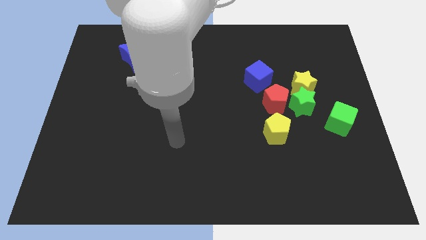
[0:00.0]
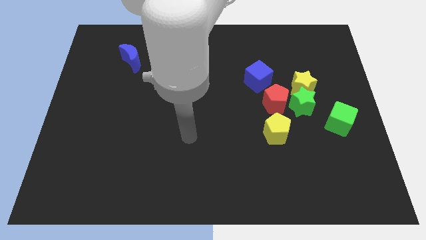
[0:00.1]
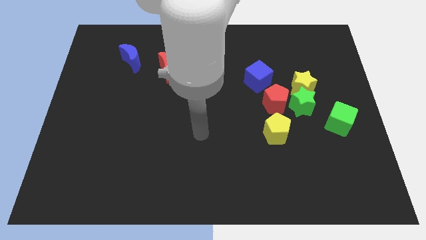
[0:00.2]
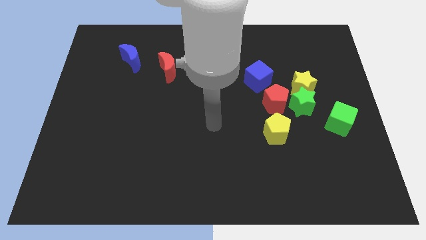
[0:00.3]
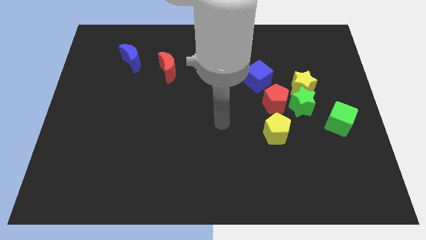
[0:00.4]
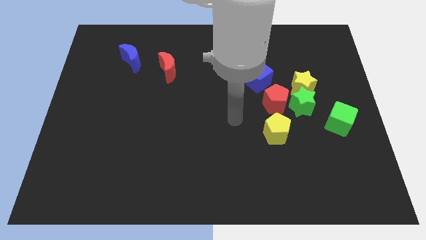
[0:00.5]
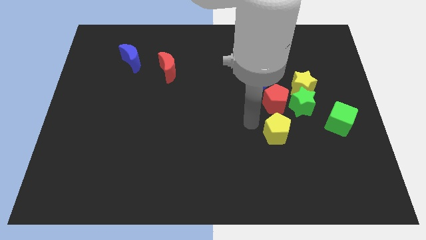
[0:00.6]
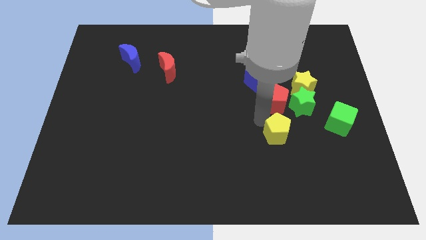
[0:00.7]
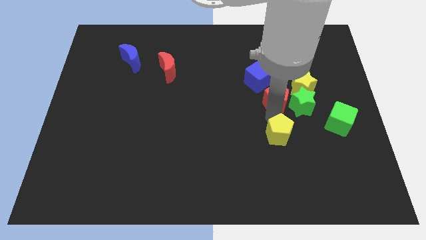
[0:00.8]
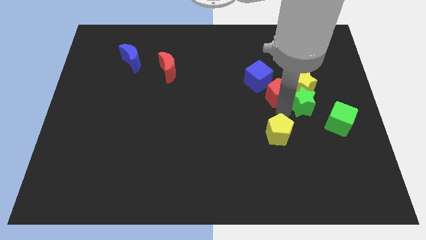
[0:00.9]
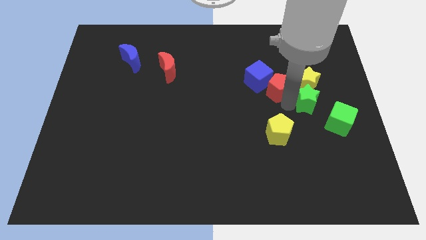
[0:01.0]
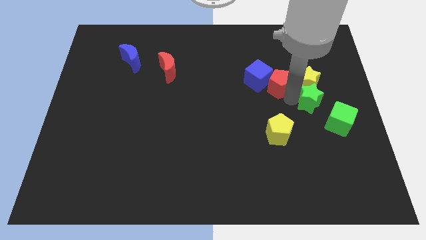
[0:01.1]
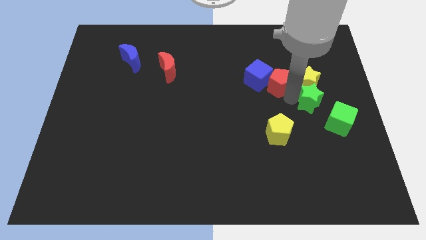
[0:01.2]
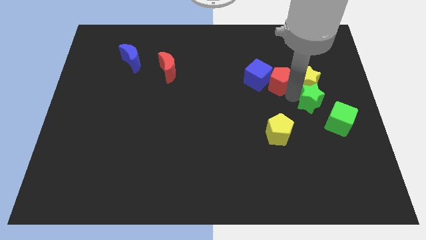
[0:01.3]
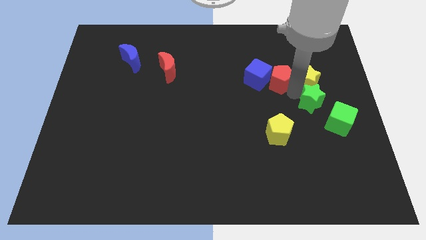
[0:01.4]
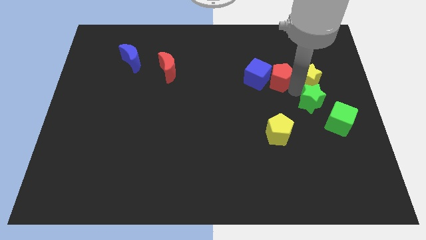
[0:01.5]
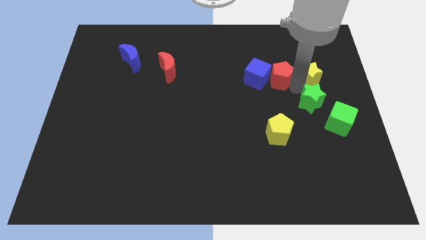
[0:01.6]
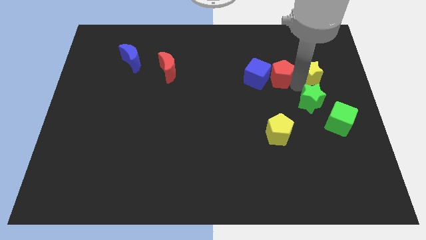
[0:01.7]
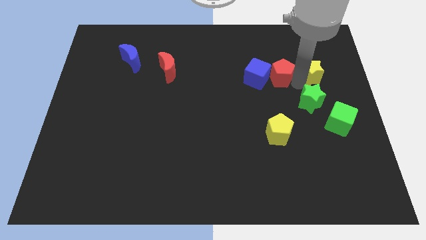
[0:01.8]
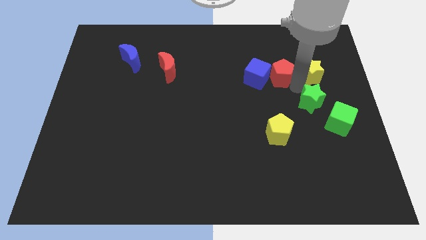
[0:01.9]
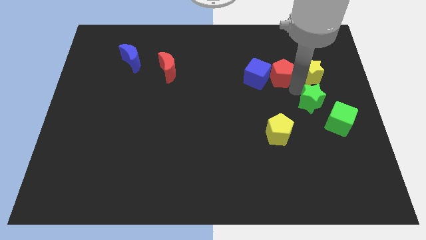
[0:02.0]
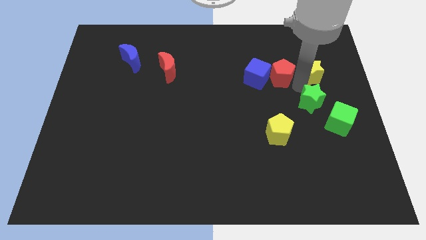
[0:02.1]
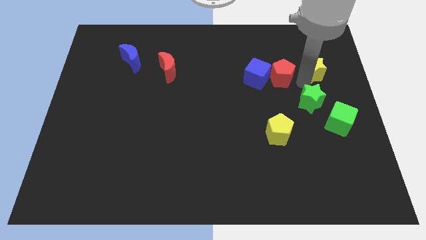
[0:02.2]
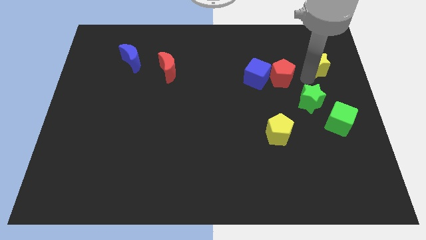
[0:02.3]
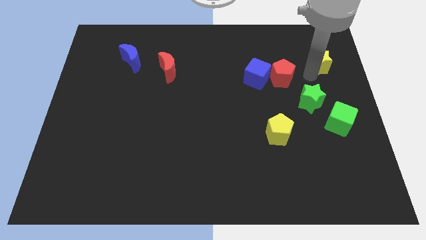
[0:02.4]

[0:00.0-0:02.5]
separate the yellow star from the green star and red pentagon

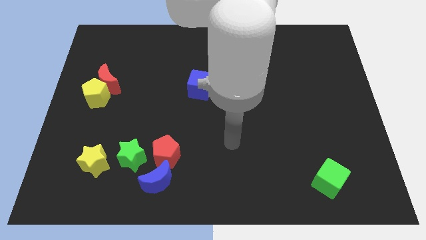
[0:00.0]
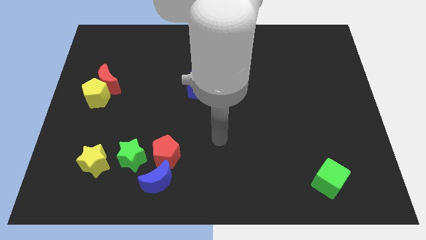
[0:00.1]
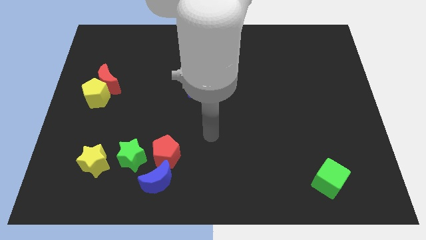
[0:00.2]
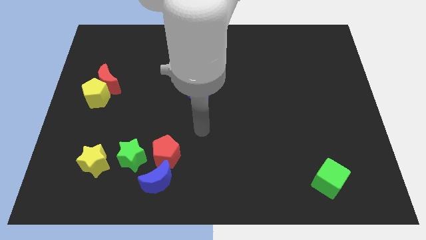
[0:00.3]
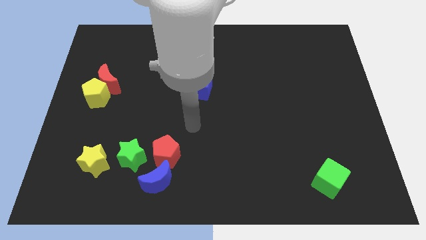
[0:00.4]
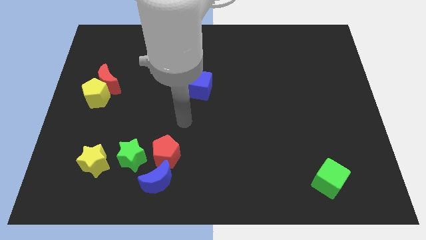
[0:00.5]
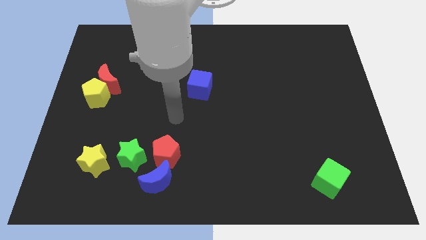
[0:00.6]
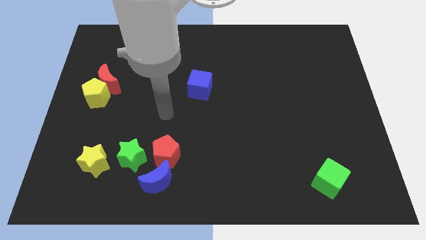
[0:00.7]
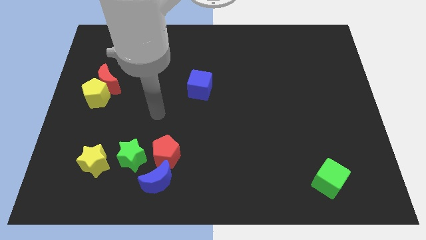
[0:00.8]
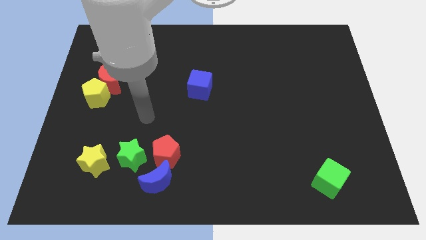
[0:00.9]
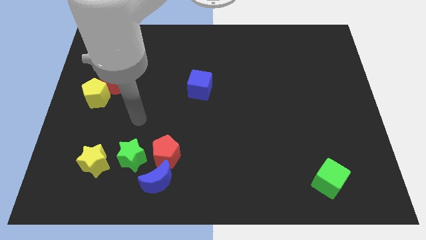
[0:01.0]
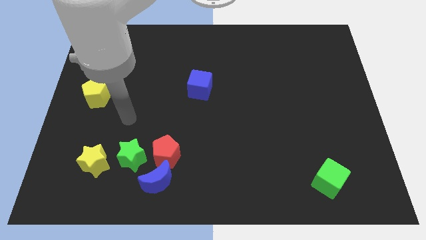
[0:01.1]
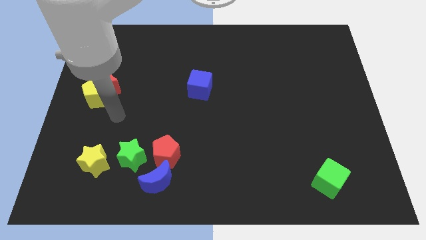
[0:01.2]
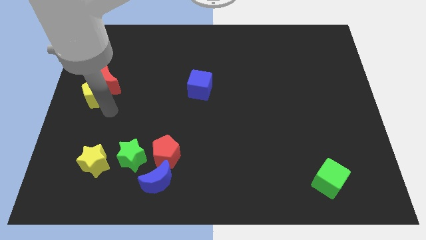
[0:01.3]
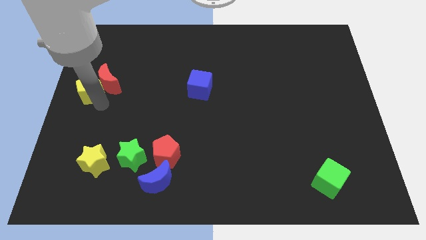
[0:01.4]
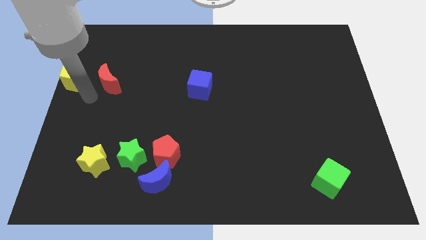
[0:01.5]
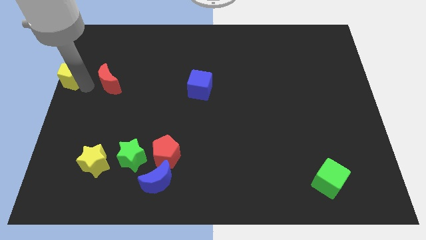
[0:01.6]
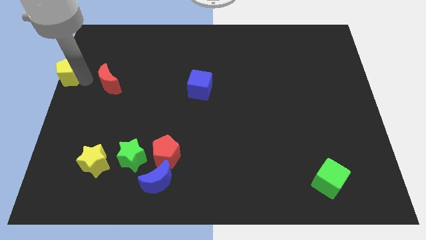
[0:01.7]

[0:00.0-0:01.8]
move the red moon away from the yellow pentagon

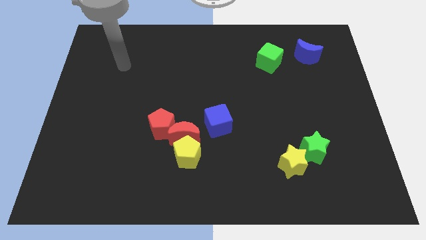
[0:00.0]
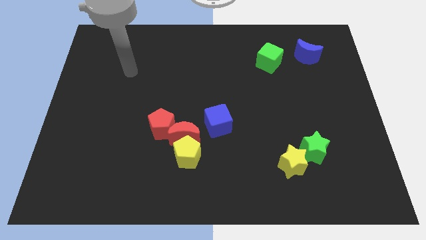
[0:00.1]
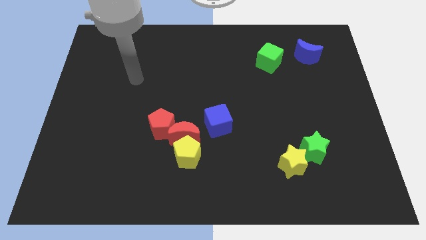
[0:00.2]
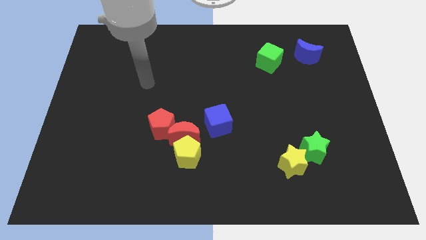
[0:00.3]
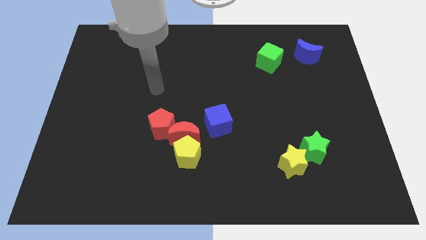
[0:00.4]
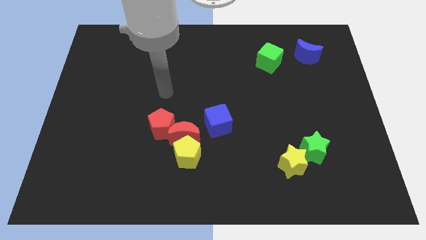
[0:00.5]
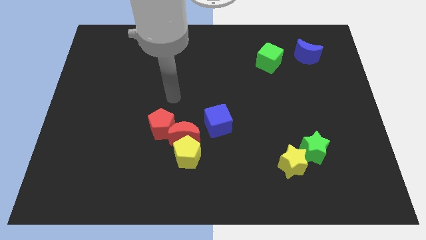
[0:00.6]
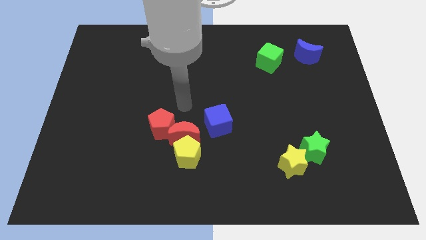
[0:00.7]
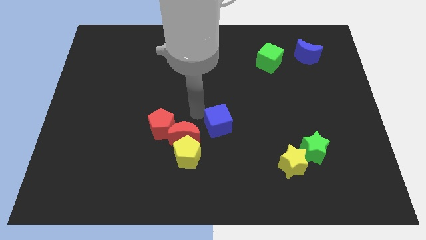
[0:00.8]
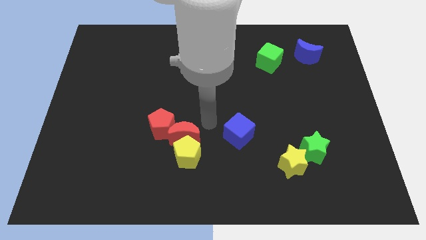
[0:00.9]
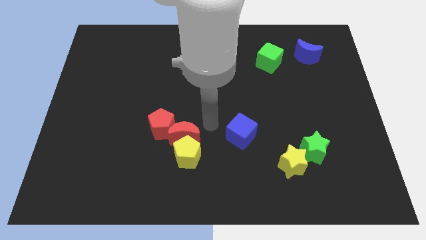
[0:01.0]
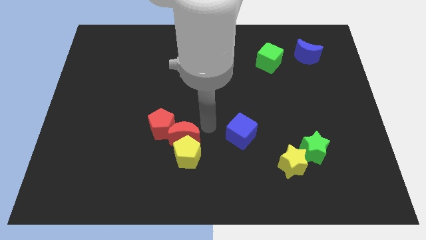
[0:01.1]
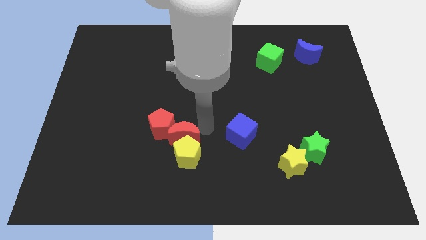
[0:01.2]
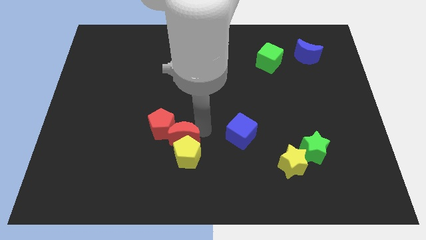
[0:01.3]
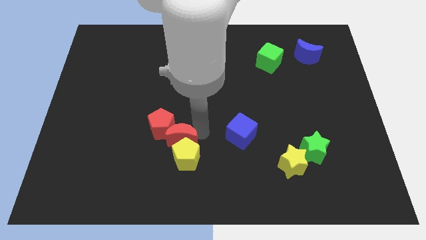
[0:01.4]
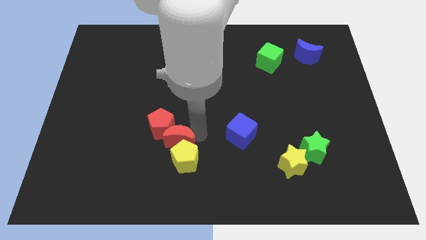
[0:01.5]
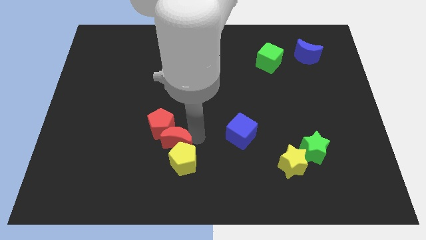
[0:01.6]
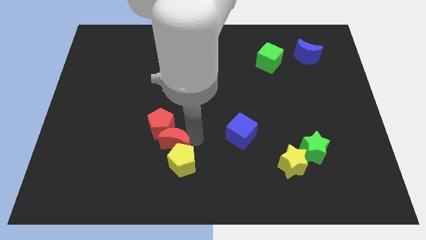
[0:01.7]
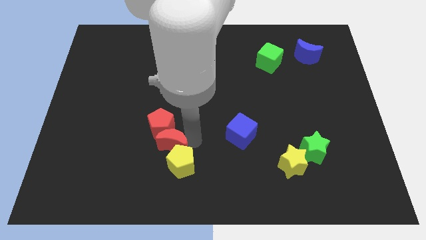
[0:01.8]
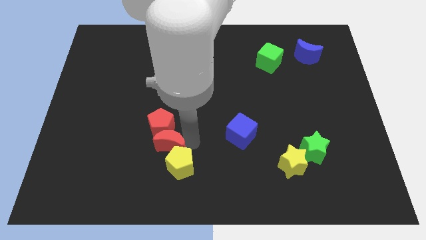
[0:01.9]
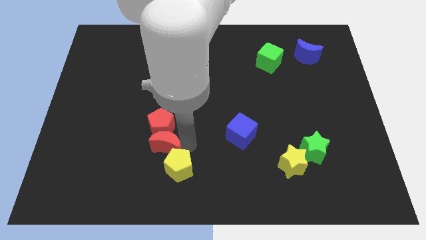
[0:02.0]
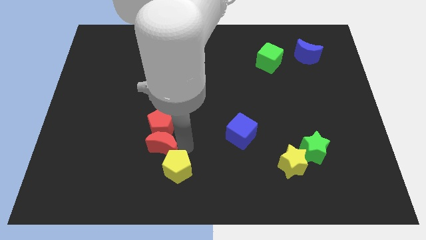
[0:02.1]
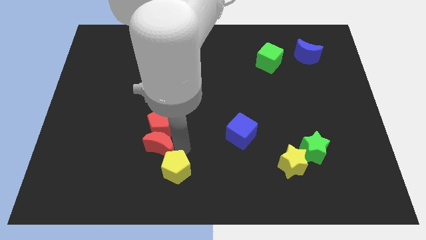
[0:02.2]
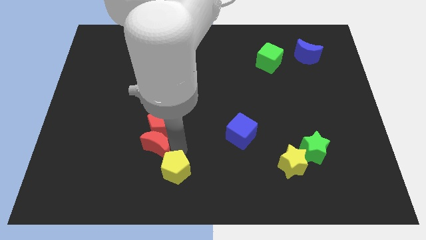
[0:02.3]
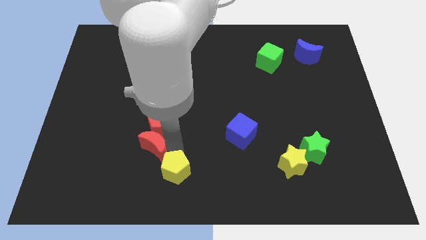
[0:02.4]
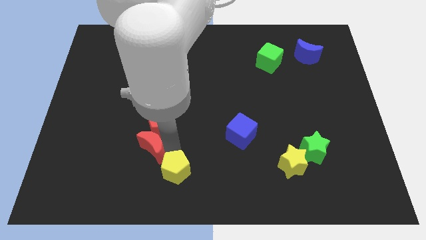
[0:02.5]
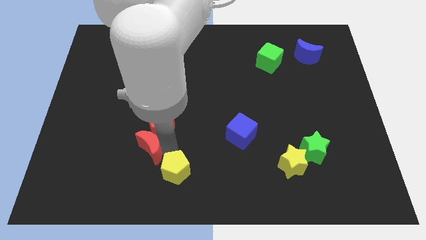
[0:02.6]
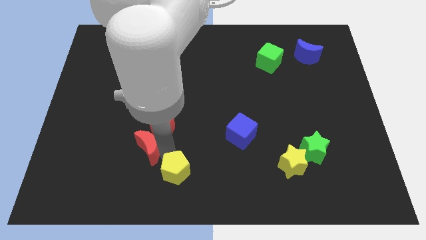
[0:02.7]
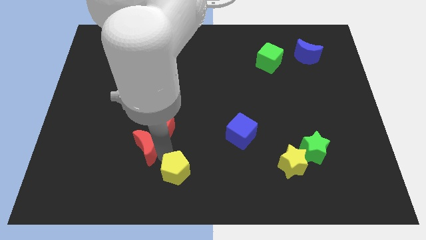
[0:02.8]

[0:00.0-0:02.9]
separate the red moon from the yellow pentagon, red pentagon, and blue cube

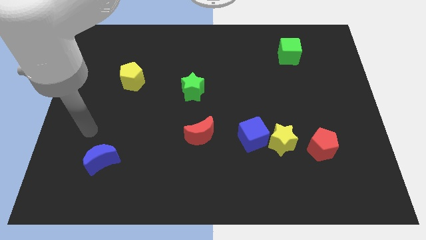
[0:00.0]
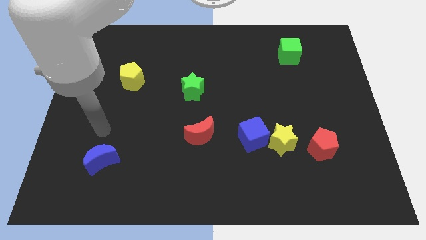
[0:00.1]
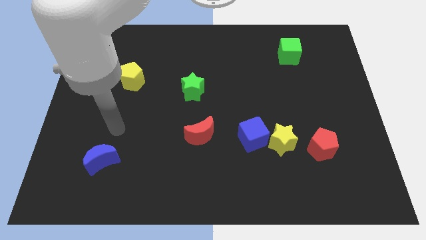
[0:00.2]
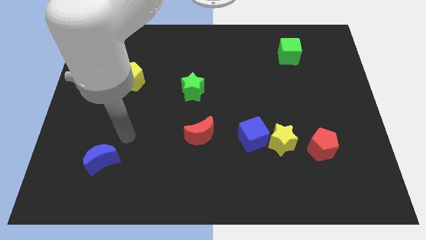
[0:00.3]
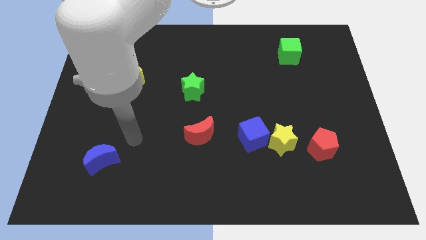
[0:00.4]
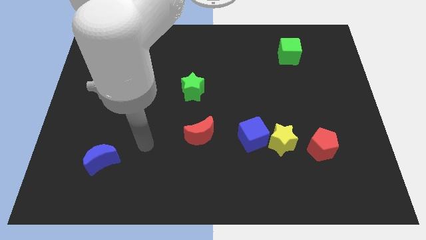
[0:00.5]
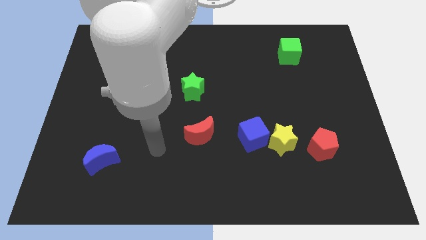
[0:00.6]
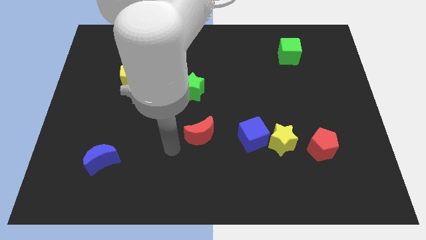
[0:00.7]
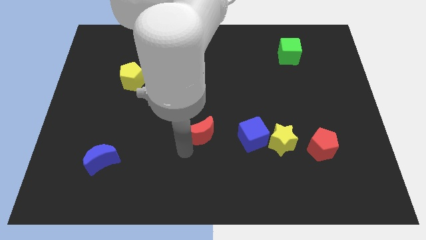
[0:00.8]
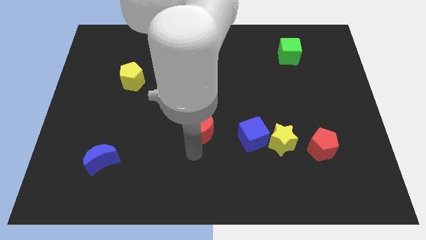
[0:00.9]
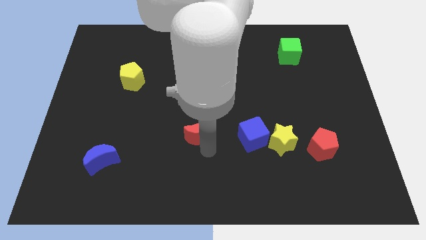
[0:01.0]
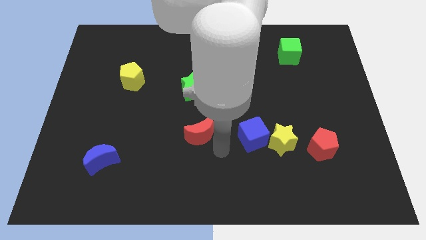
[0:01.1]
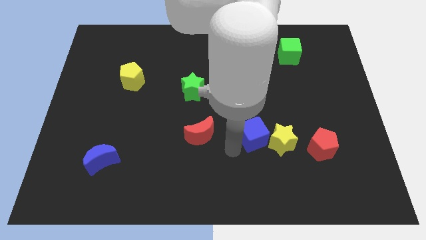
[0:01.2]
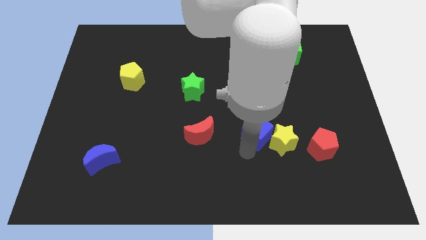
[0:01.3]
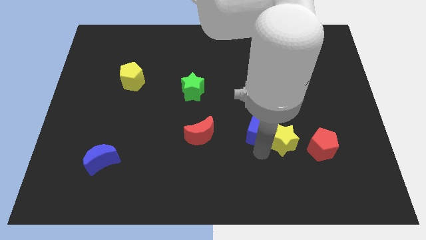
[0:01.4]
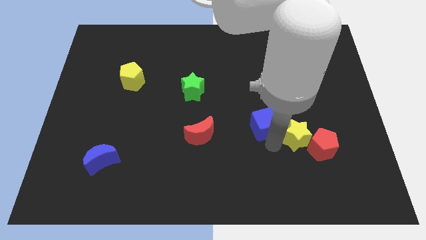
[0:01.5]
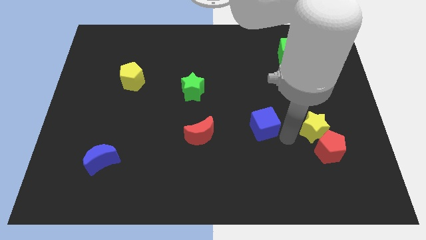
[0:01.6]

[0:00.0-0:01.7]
move the blue cube away from the yellow star

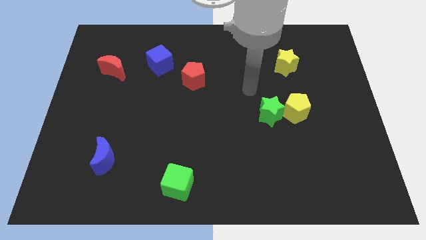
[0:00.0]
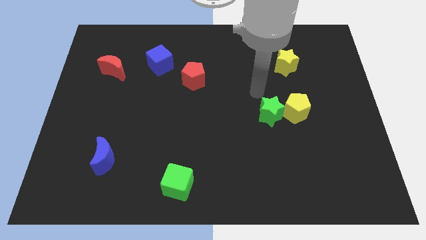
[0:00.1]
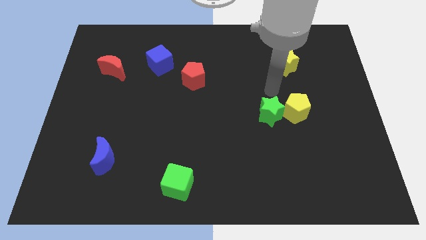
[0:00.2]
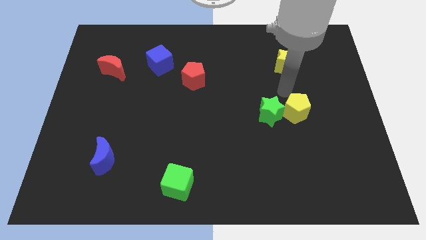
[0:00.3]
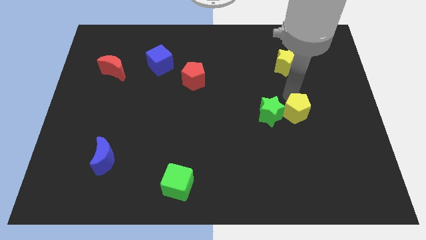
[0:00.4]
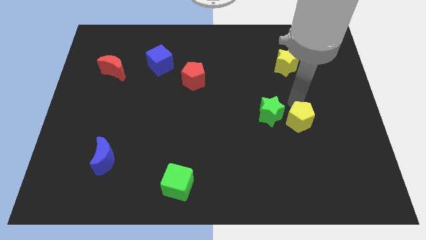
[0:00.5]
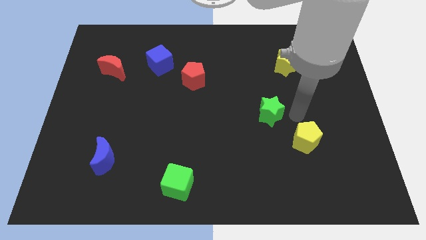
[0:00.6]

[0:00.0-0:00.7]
move the green star away from the yellow pentagon
